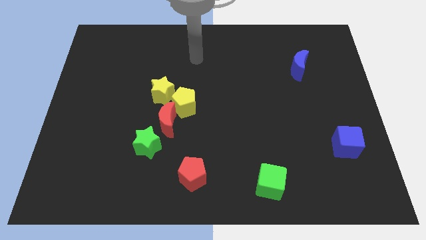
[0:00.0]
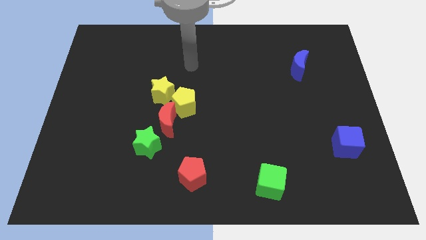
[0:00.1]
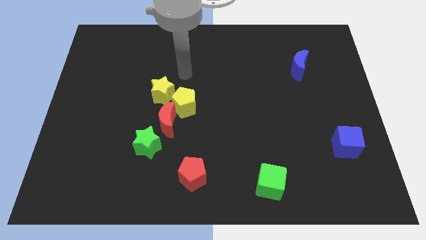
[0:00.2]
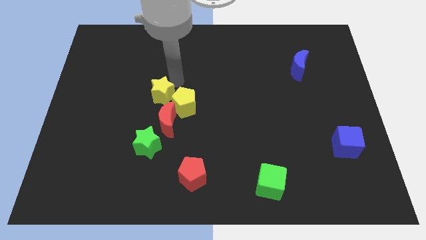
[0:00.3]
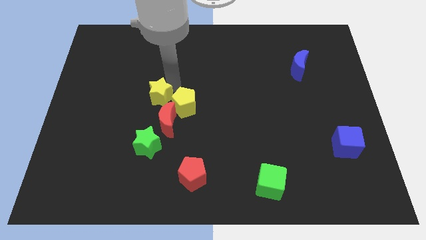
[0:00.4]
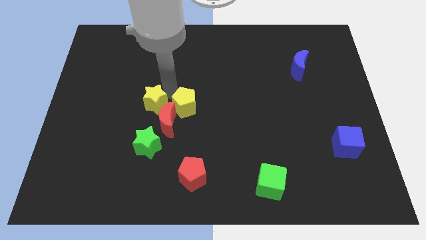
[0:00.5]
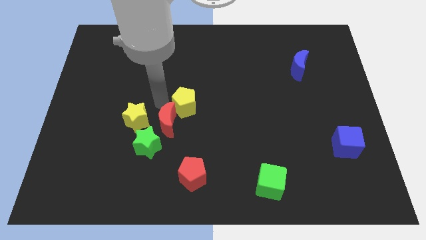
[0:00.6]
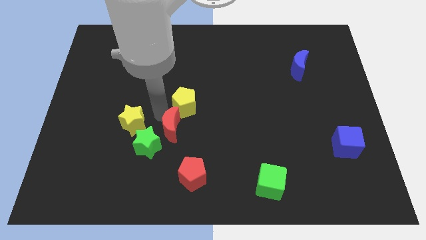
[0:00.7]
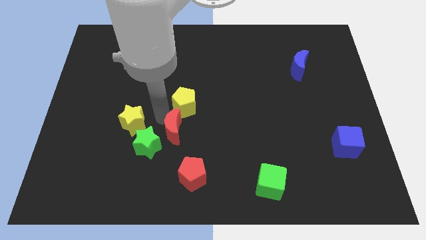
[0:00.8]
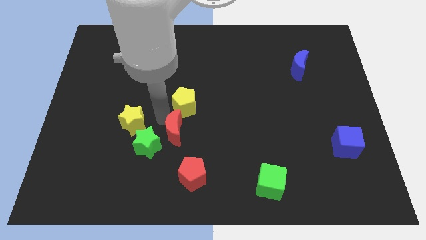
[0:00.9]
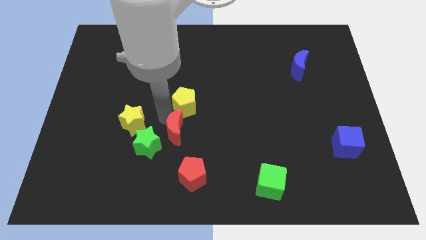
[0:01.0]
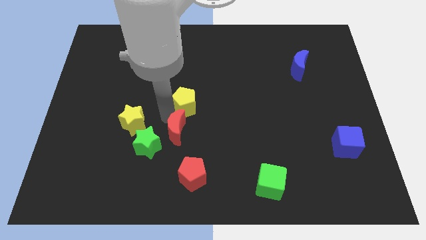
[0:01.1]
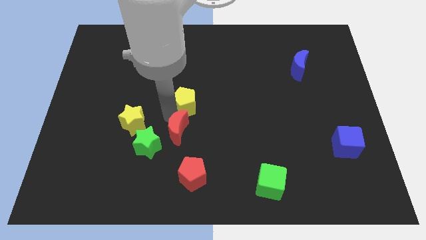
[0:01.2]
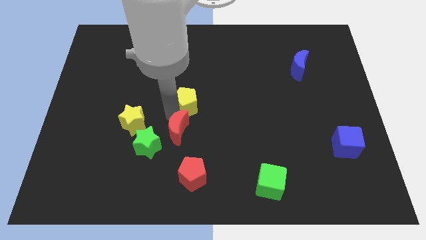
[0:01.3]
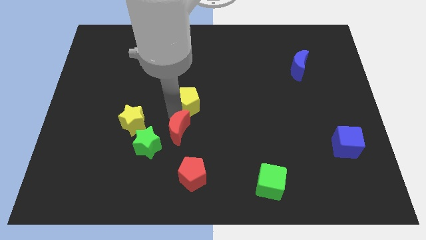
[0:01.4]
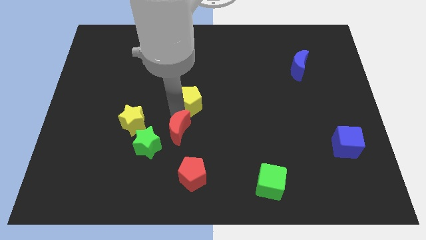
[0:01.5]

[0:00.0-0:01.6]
pull the yellow pentagon apart from the red moon and yellow star

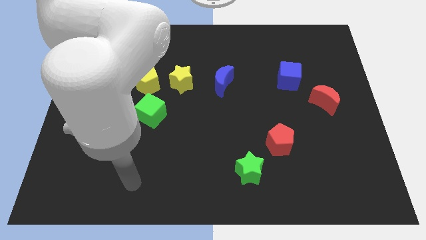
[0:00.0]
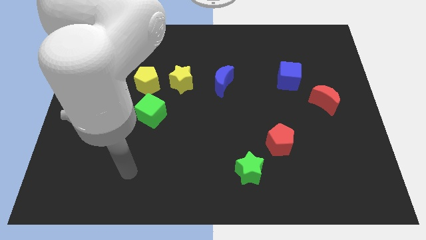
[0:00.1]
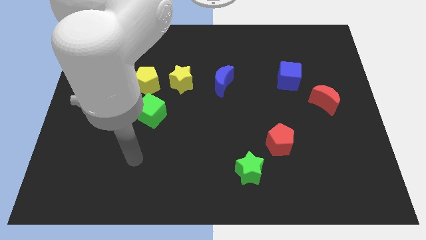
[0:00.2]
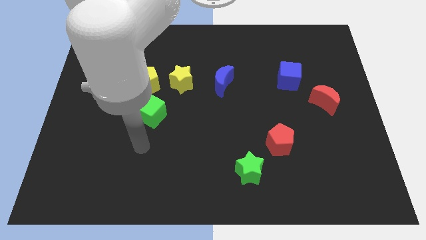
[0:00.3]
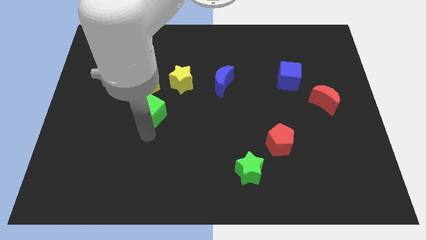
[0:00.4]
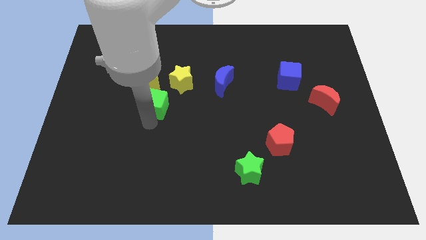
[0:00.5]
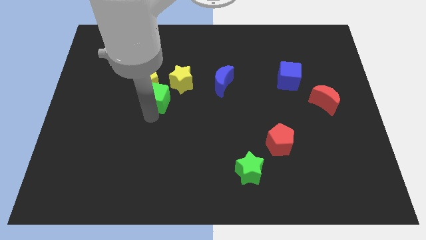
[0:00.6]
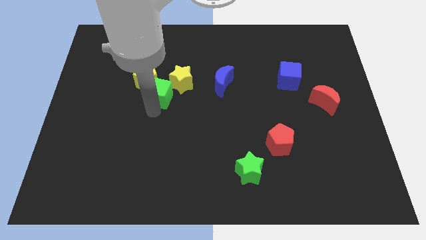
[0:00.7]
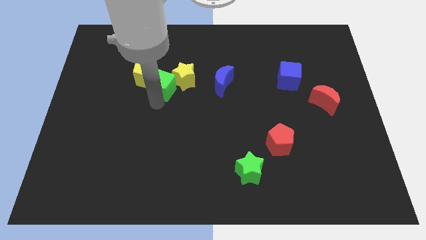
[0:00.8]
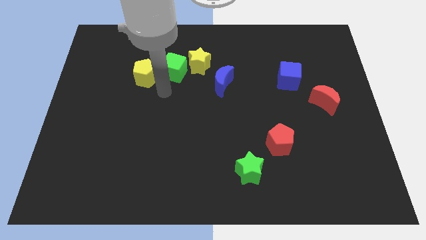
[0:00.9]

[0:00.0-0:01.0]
separate the yellow pentagon from the yellow star and green cube

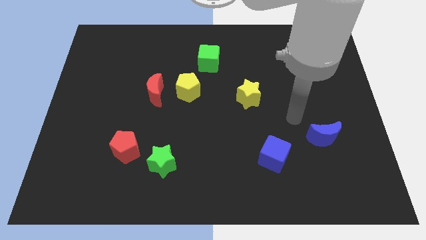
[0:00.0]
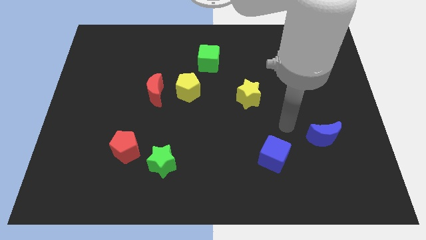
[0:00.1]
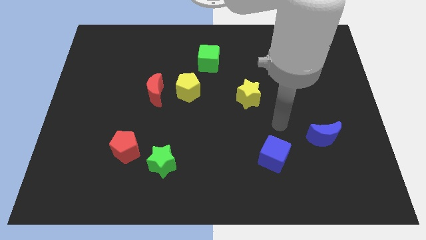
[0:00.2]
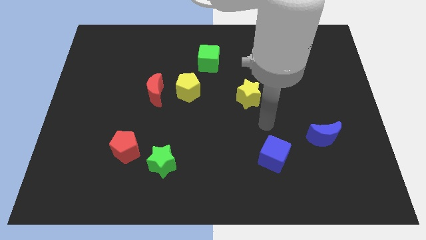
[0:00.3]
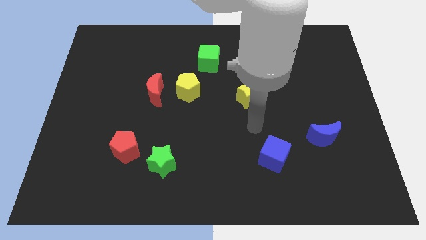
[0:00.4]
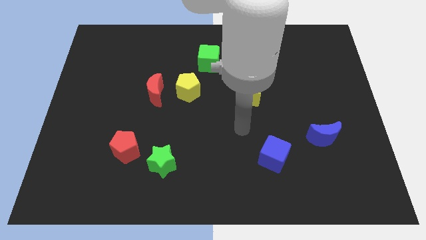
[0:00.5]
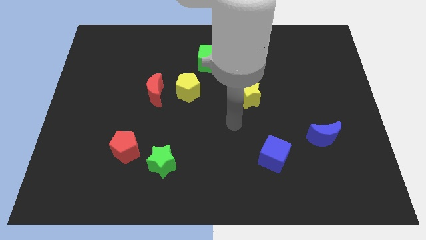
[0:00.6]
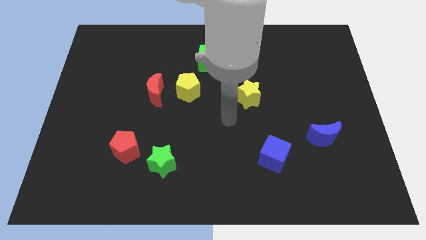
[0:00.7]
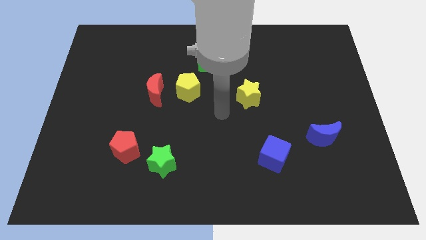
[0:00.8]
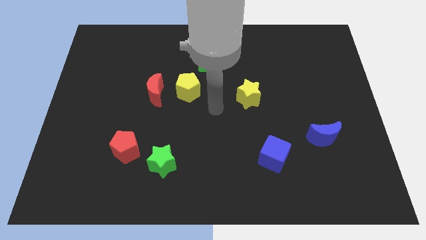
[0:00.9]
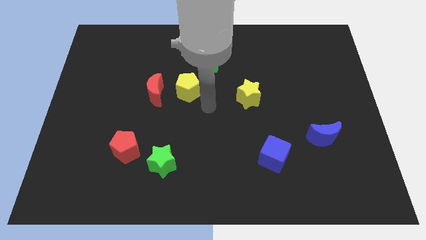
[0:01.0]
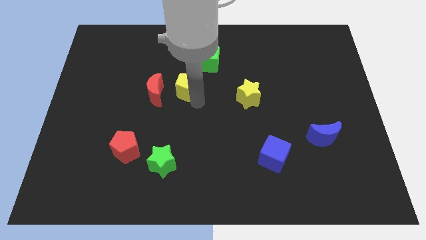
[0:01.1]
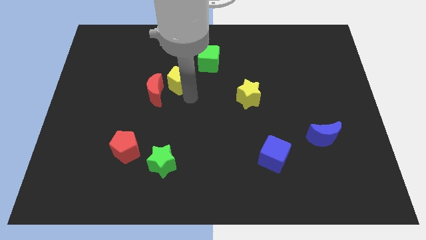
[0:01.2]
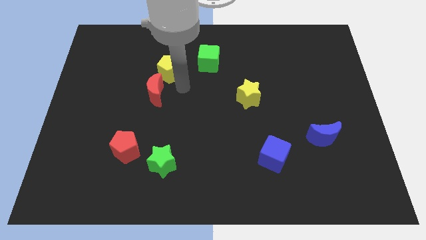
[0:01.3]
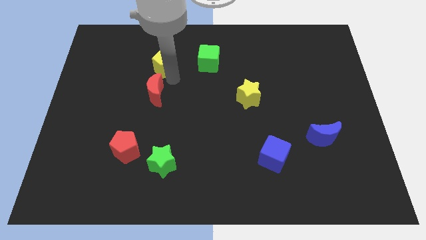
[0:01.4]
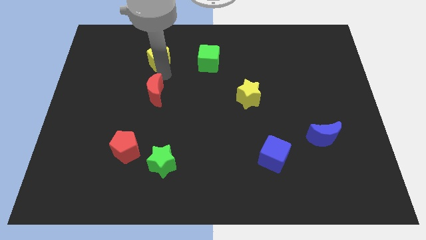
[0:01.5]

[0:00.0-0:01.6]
separate the red moon from the yellow pentagon

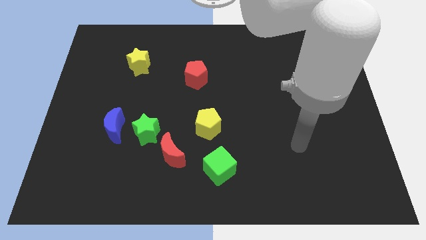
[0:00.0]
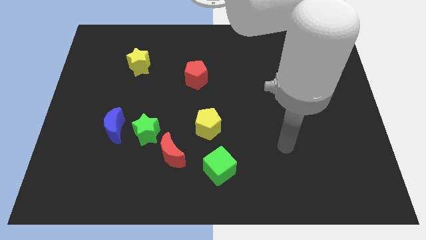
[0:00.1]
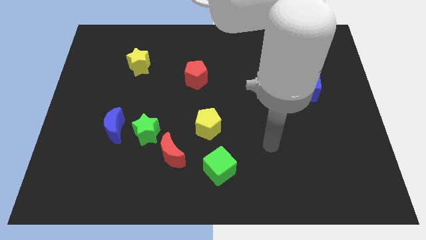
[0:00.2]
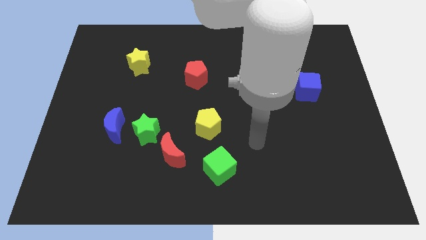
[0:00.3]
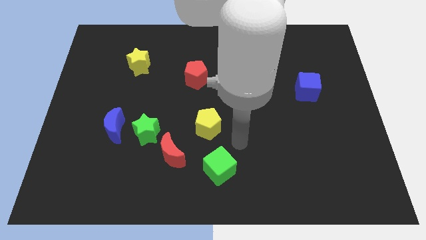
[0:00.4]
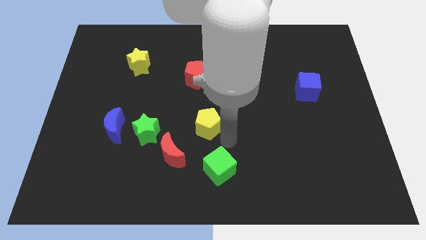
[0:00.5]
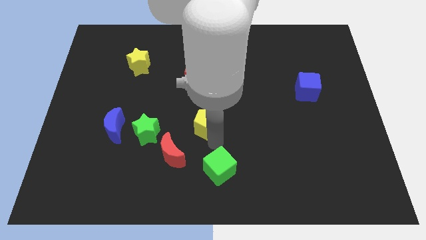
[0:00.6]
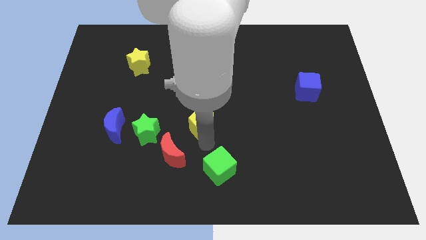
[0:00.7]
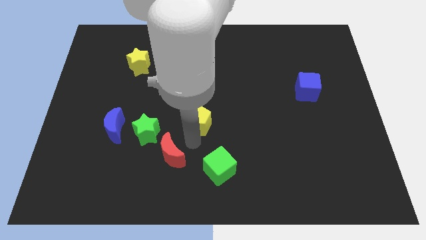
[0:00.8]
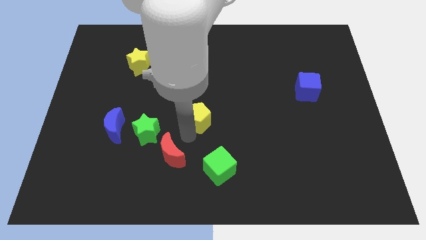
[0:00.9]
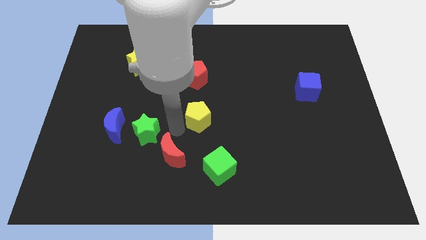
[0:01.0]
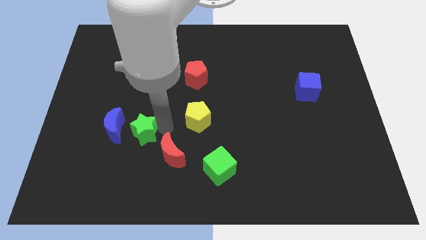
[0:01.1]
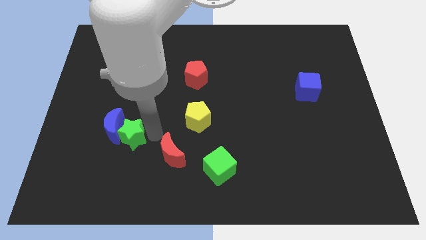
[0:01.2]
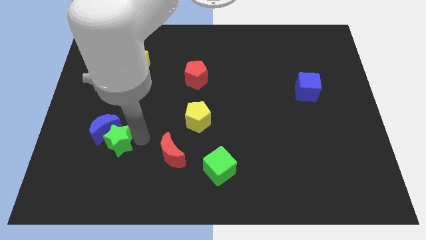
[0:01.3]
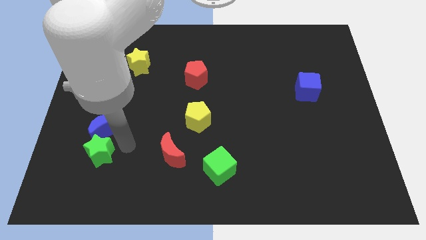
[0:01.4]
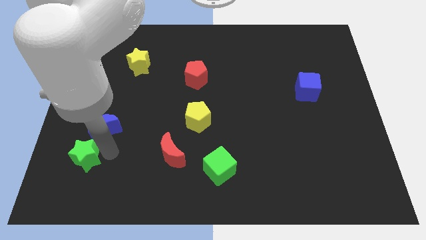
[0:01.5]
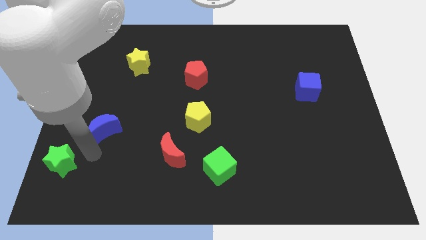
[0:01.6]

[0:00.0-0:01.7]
pull the blue moon apart from the green star

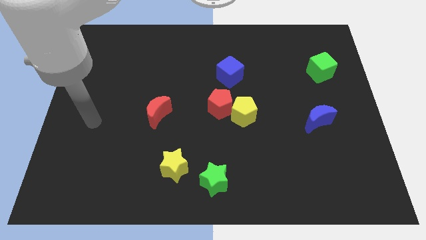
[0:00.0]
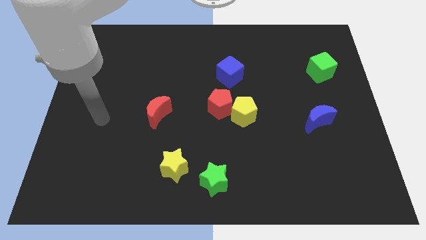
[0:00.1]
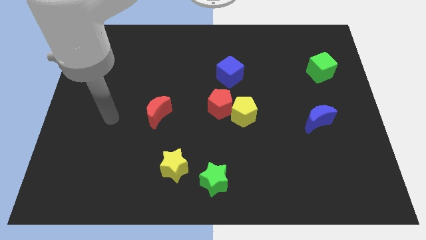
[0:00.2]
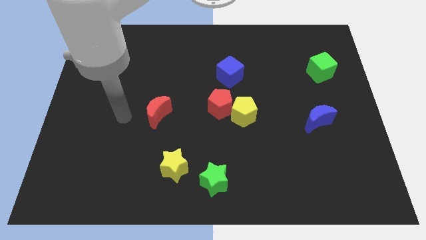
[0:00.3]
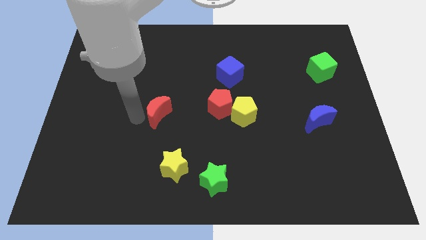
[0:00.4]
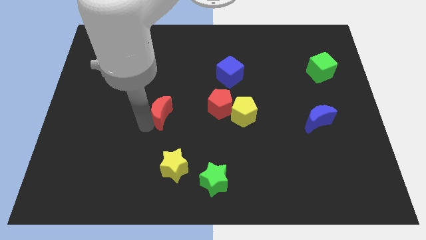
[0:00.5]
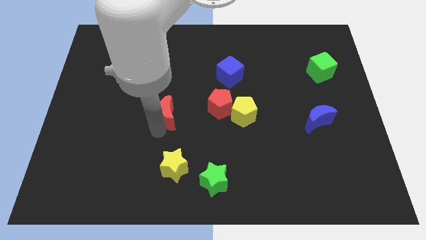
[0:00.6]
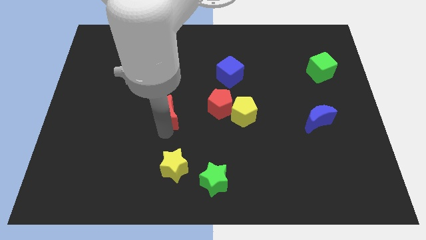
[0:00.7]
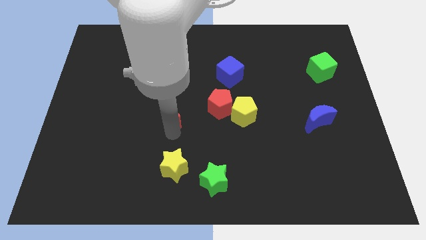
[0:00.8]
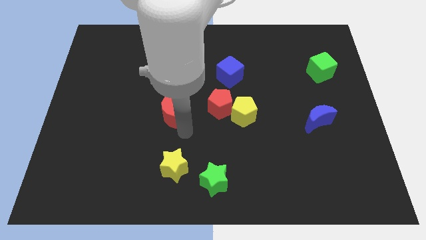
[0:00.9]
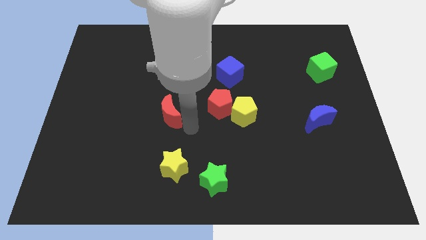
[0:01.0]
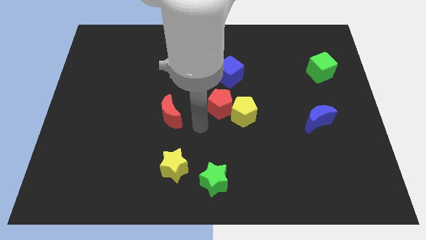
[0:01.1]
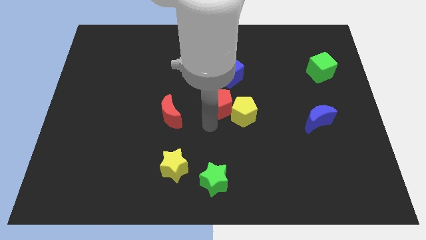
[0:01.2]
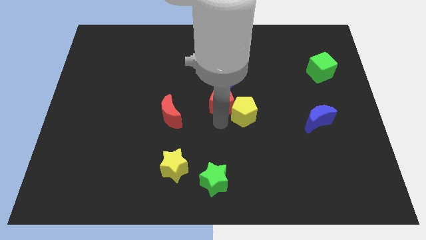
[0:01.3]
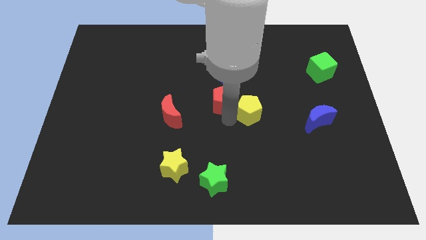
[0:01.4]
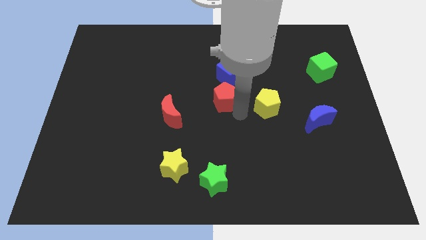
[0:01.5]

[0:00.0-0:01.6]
move the red pentagon away from the yellow pentagon

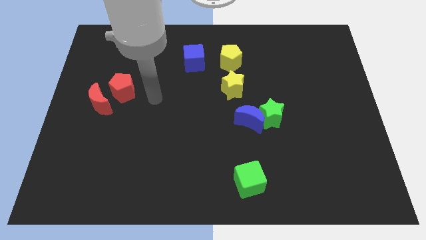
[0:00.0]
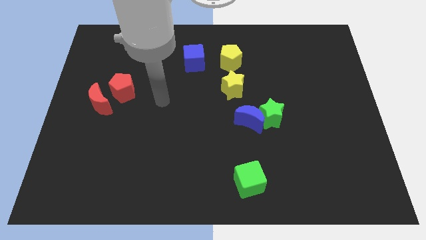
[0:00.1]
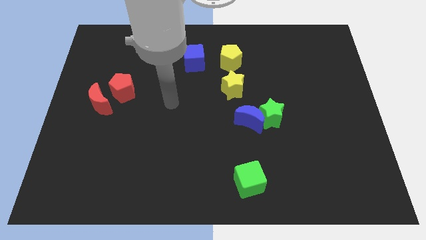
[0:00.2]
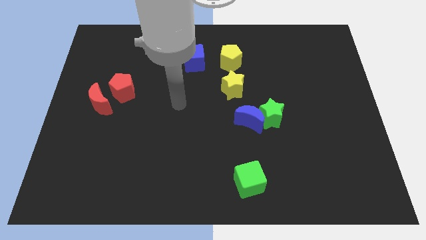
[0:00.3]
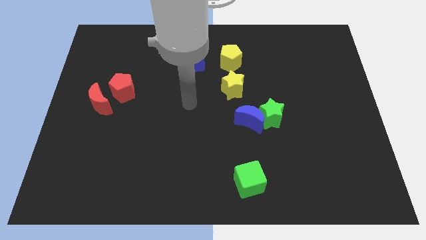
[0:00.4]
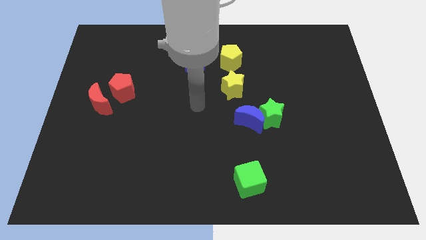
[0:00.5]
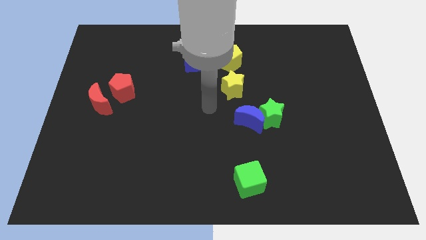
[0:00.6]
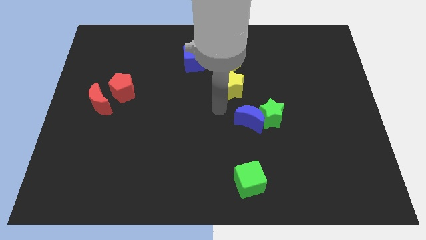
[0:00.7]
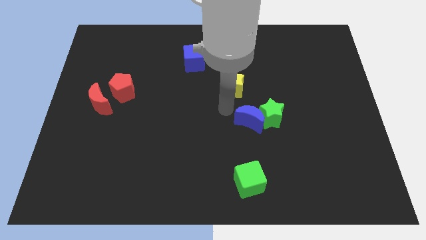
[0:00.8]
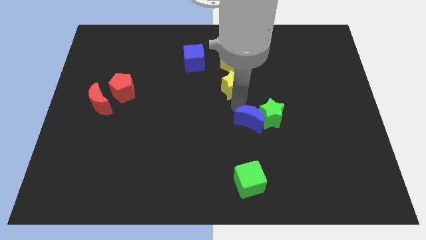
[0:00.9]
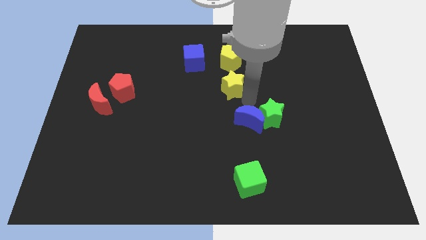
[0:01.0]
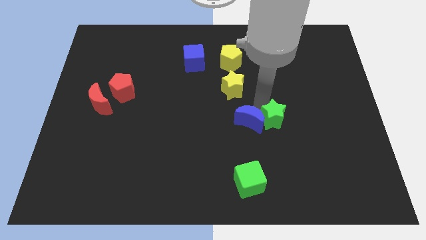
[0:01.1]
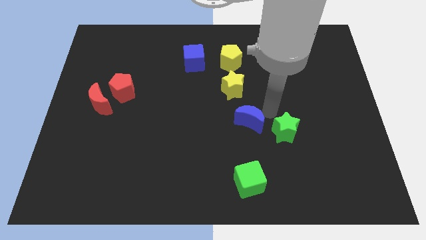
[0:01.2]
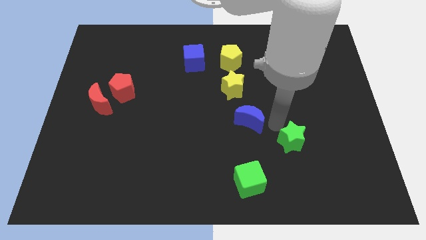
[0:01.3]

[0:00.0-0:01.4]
move the blue moon away from the green star

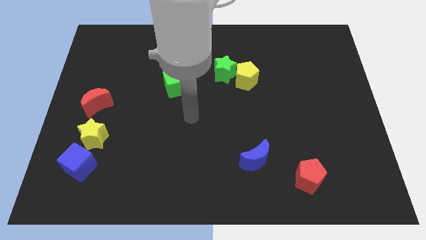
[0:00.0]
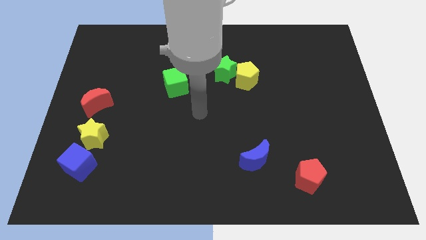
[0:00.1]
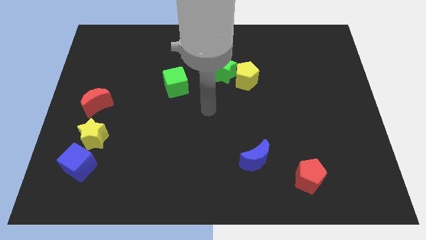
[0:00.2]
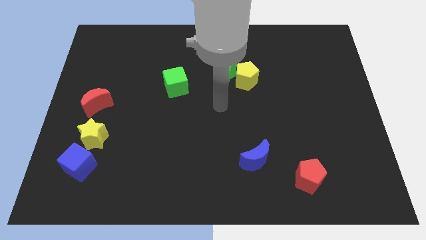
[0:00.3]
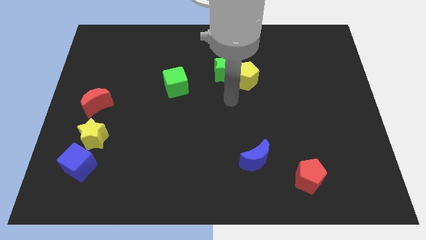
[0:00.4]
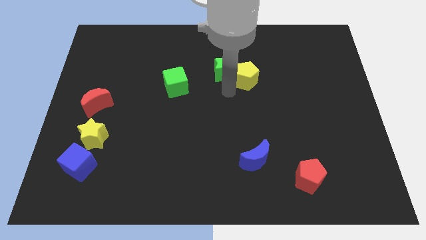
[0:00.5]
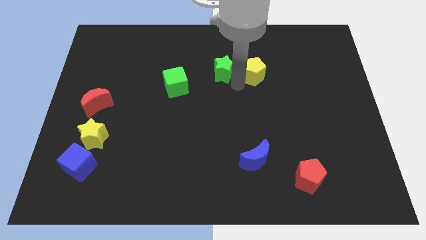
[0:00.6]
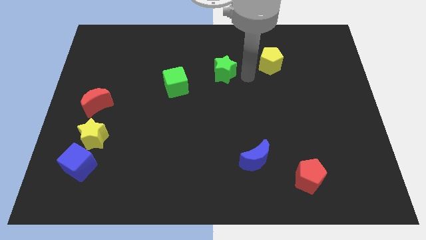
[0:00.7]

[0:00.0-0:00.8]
pull the green star apart from the yellow pentagon
